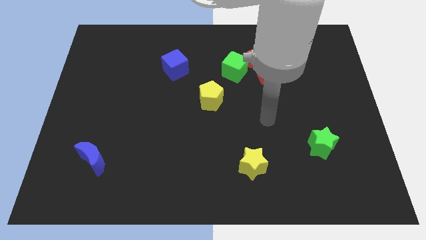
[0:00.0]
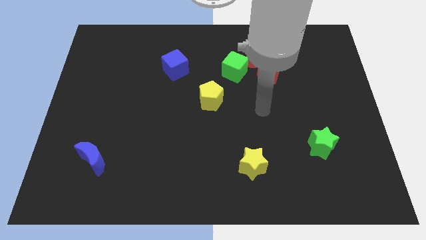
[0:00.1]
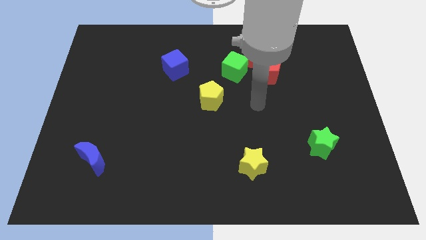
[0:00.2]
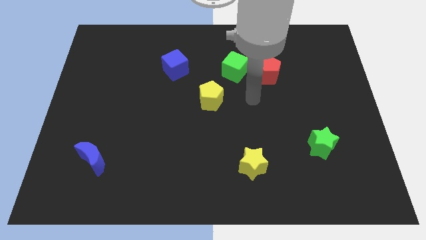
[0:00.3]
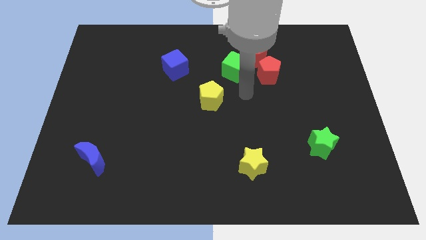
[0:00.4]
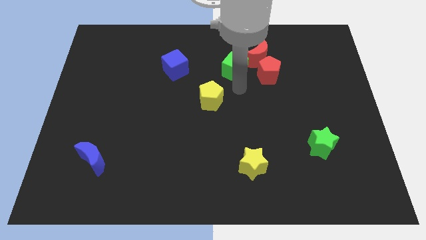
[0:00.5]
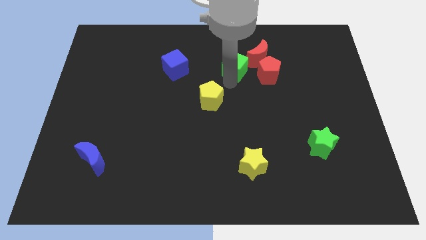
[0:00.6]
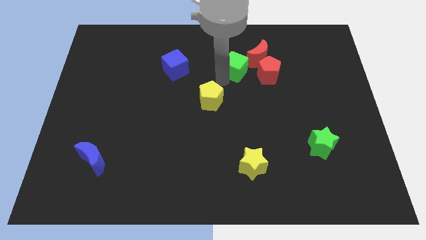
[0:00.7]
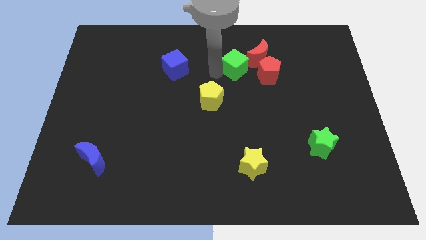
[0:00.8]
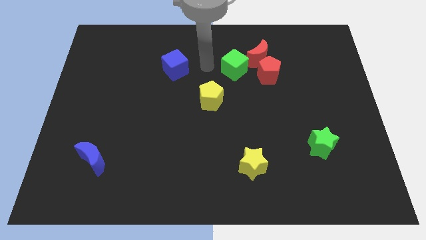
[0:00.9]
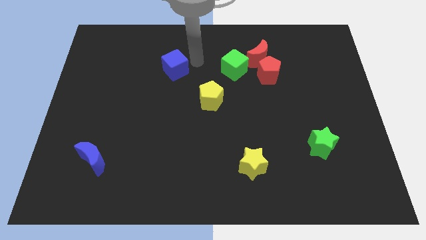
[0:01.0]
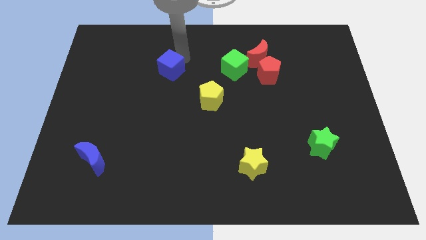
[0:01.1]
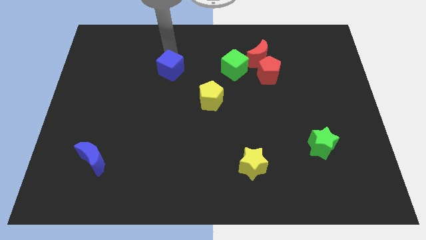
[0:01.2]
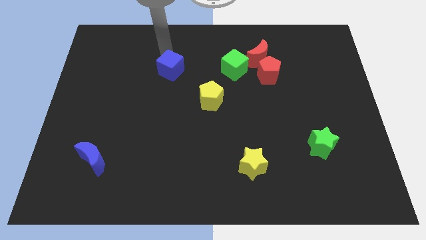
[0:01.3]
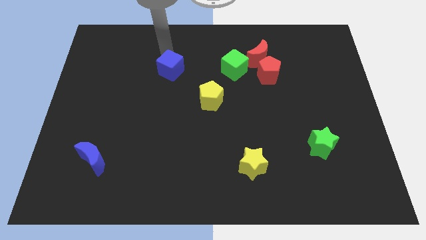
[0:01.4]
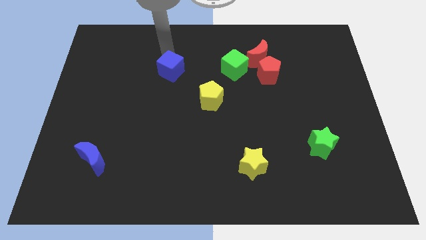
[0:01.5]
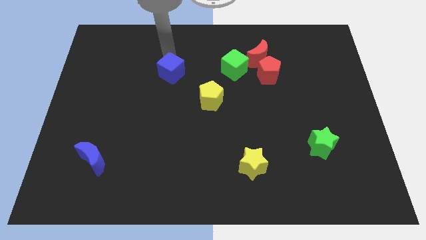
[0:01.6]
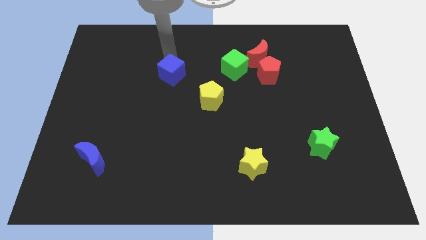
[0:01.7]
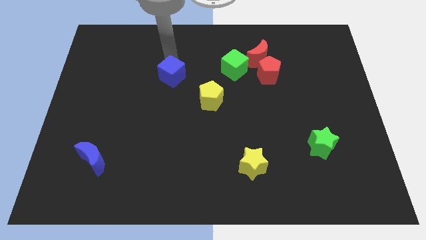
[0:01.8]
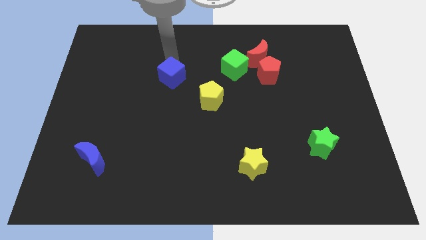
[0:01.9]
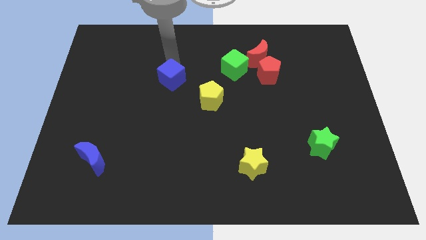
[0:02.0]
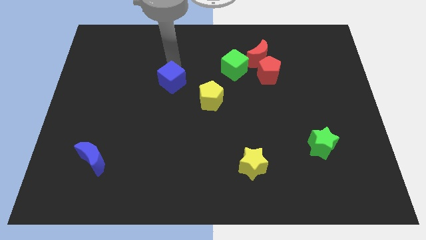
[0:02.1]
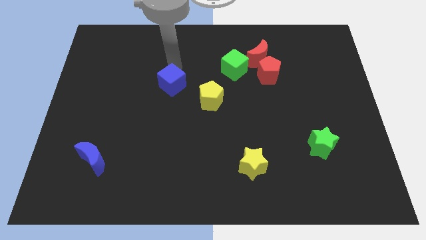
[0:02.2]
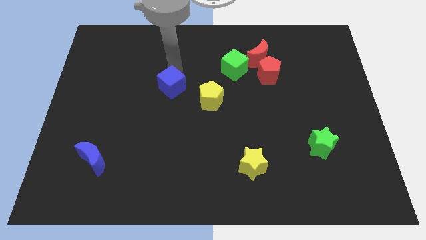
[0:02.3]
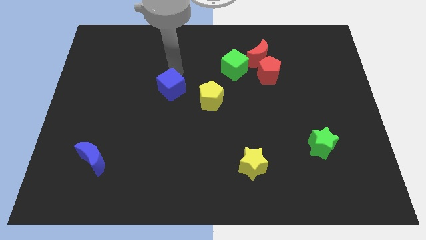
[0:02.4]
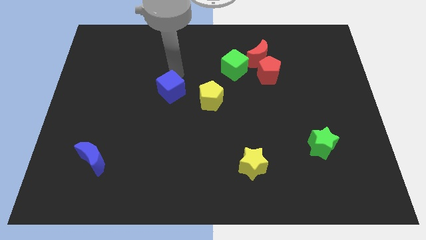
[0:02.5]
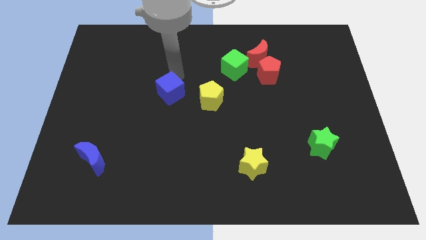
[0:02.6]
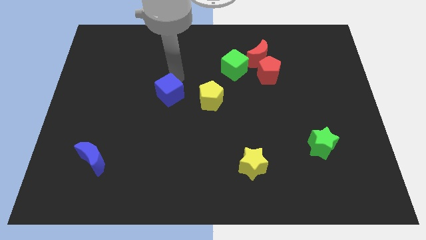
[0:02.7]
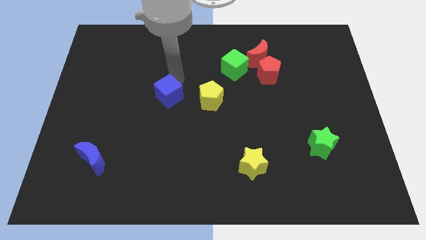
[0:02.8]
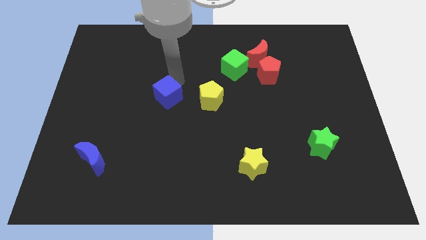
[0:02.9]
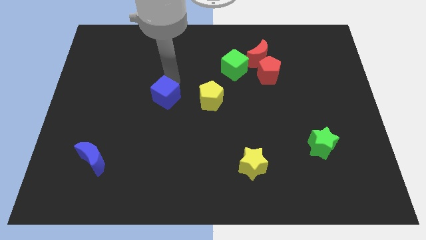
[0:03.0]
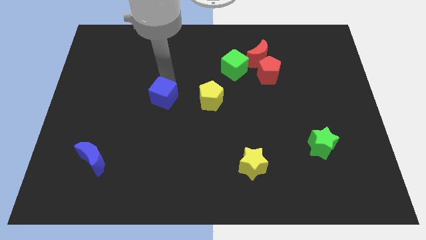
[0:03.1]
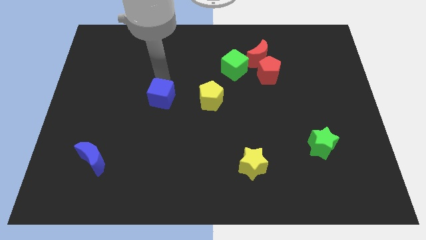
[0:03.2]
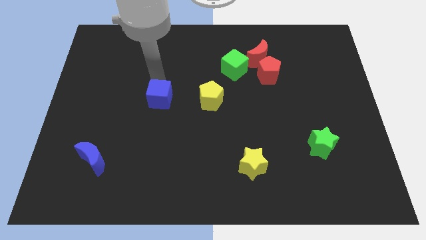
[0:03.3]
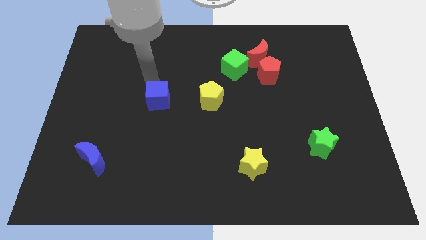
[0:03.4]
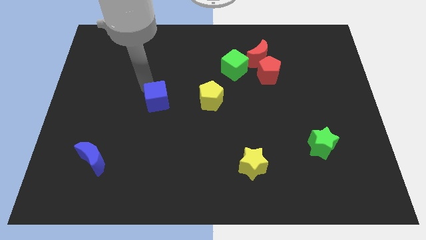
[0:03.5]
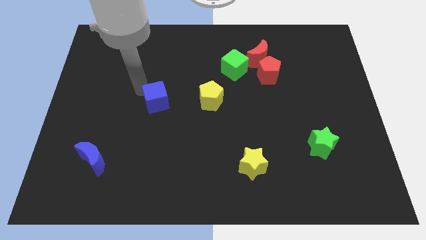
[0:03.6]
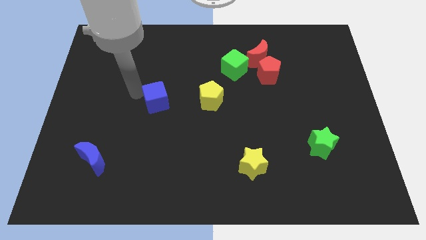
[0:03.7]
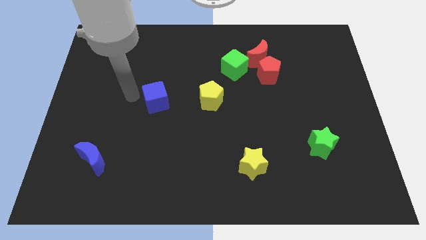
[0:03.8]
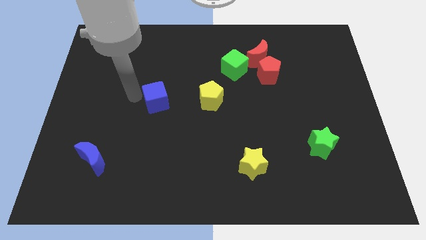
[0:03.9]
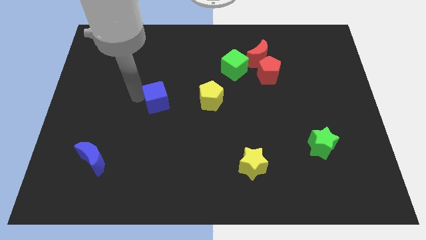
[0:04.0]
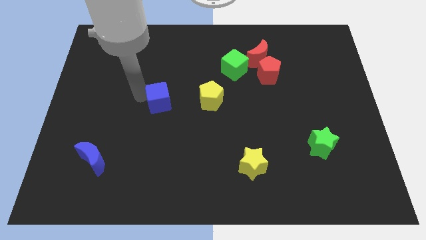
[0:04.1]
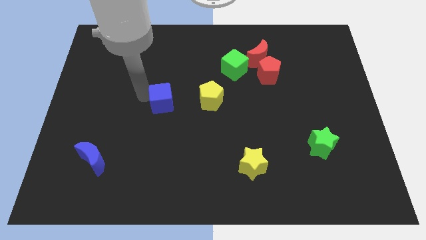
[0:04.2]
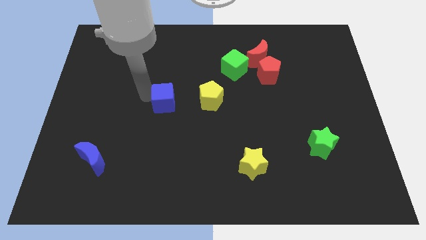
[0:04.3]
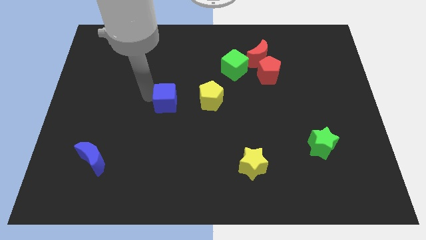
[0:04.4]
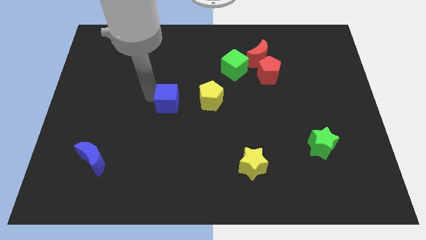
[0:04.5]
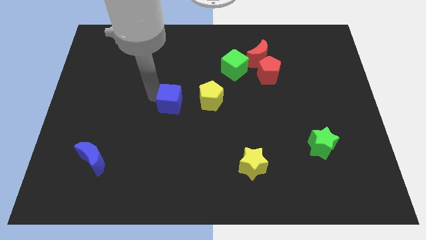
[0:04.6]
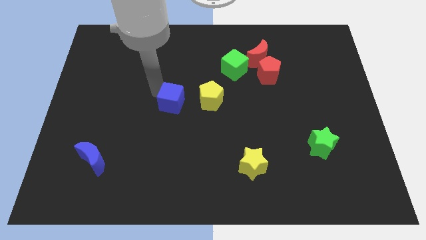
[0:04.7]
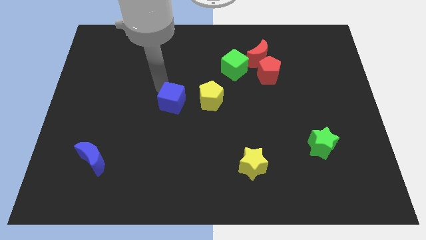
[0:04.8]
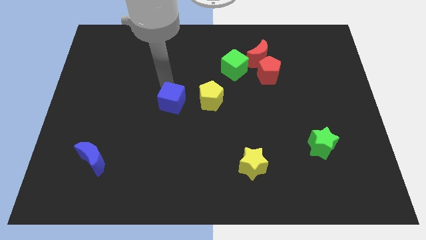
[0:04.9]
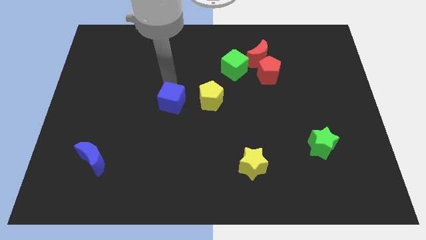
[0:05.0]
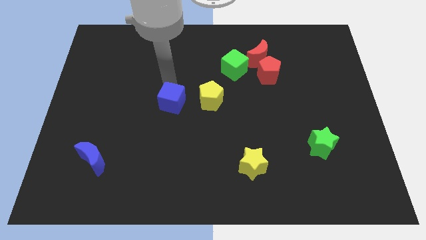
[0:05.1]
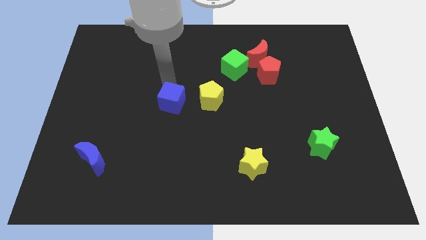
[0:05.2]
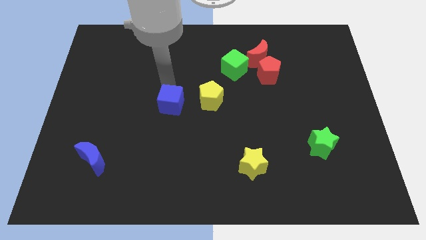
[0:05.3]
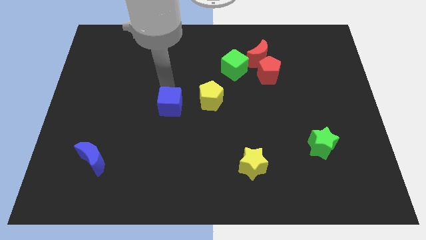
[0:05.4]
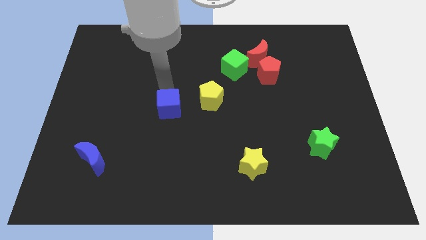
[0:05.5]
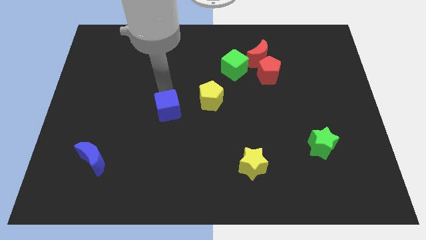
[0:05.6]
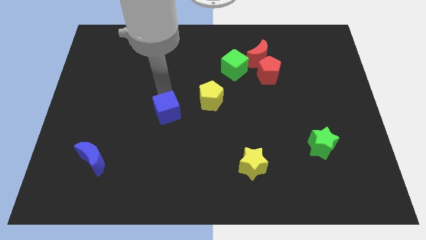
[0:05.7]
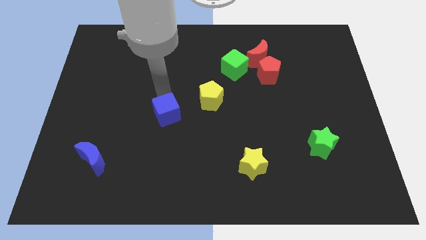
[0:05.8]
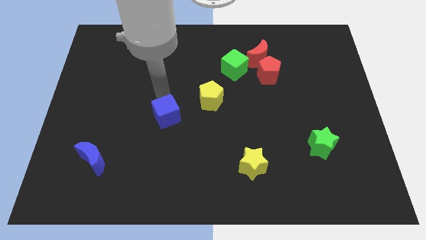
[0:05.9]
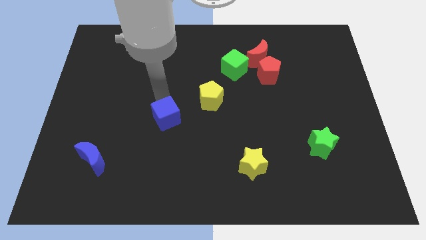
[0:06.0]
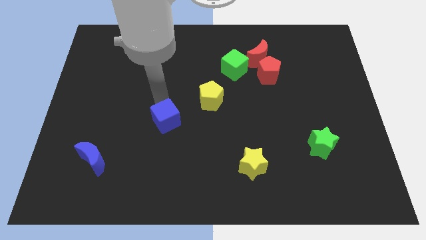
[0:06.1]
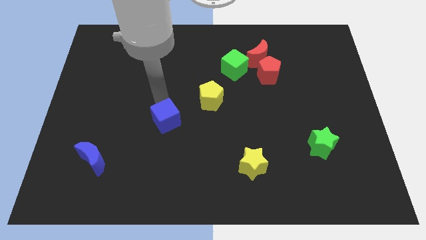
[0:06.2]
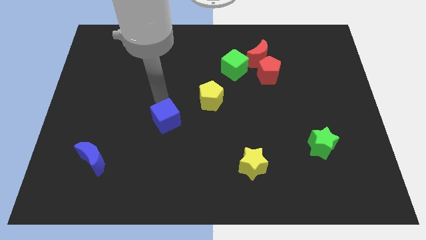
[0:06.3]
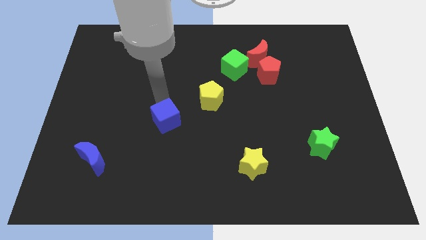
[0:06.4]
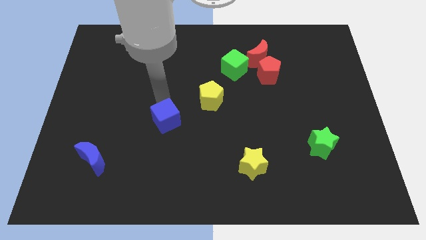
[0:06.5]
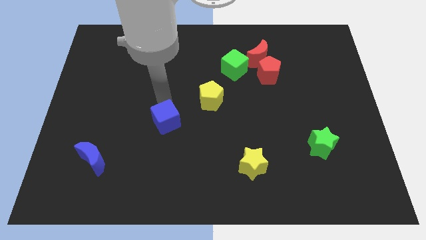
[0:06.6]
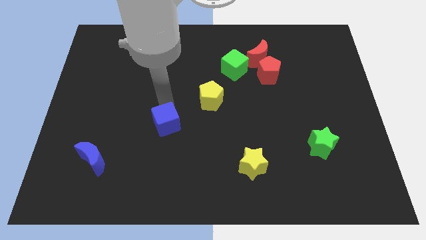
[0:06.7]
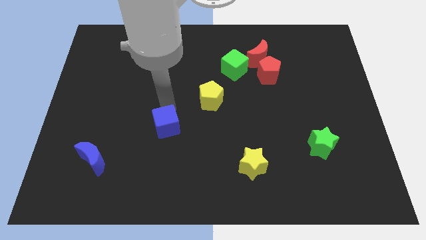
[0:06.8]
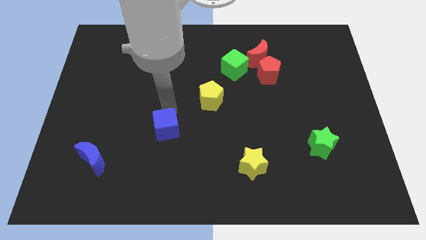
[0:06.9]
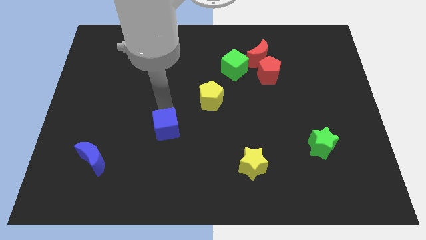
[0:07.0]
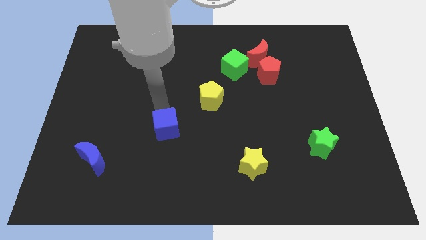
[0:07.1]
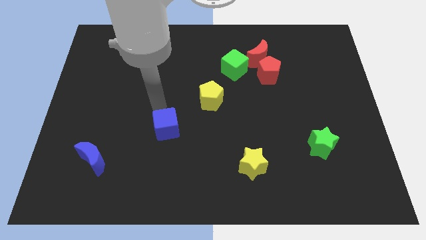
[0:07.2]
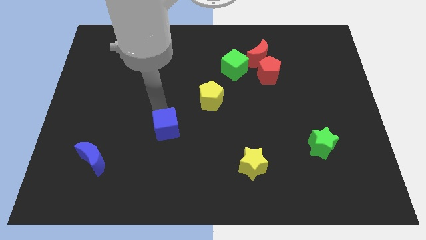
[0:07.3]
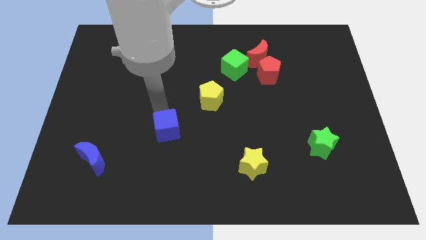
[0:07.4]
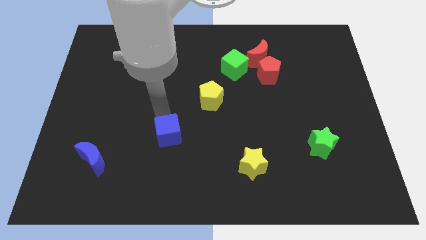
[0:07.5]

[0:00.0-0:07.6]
push the blue cube down
